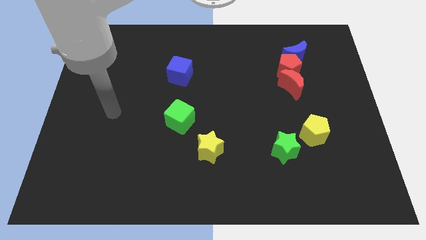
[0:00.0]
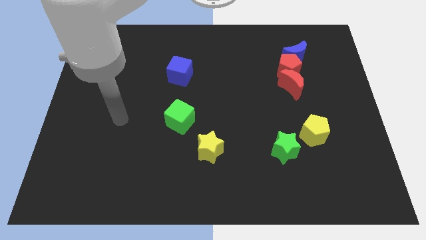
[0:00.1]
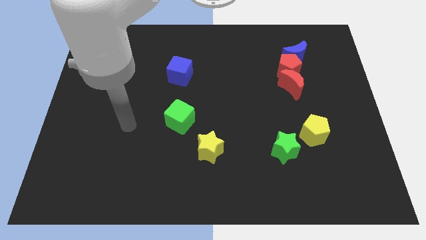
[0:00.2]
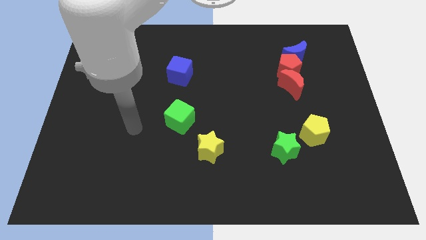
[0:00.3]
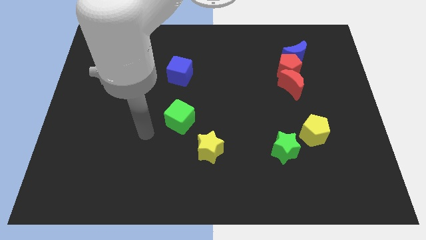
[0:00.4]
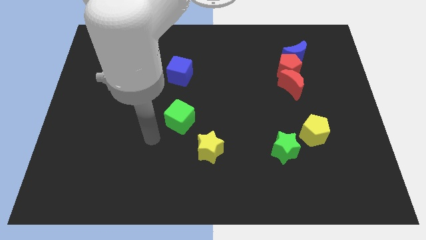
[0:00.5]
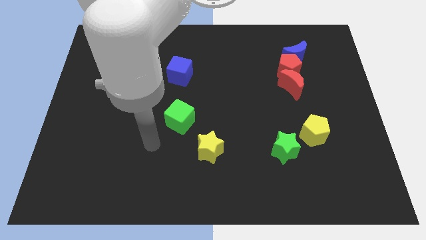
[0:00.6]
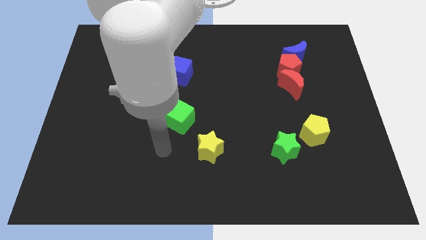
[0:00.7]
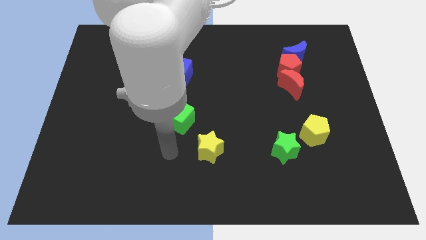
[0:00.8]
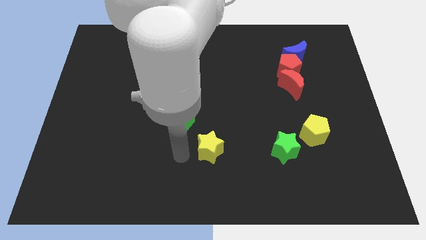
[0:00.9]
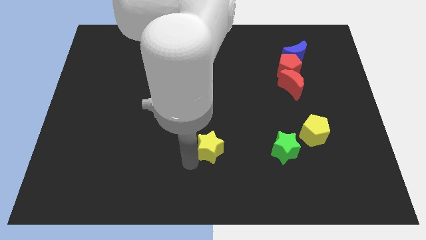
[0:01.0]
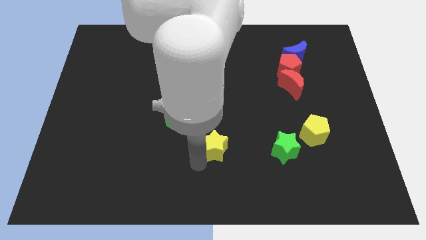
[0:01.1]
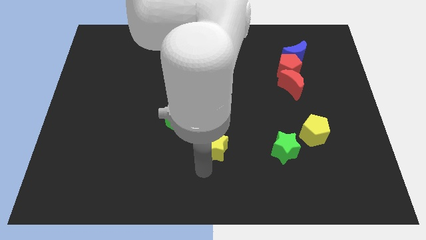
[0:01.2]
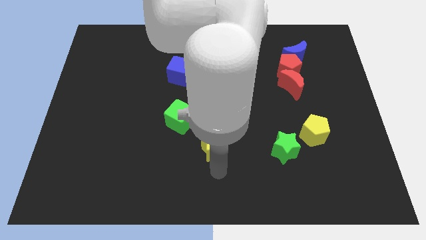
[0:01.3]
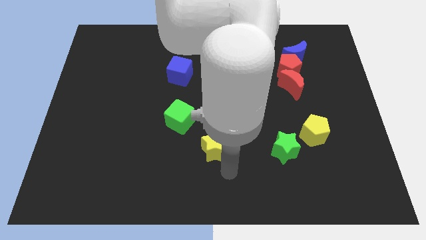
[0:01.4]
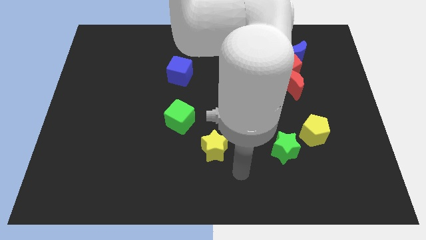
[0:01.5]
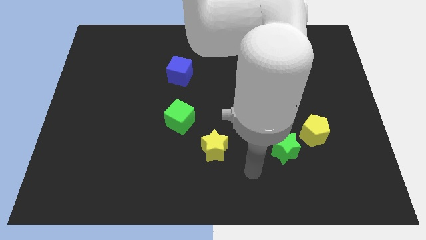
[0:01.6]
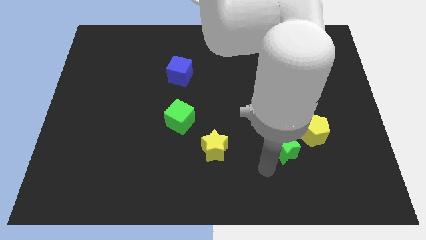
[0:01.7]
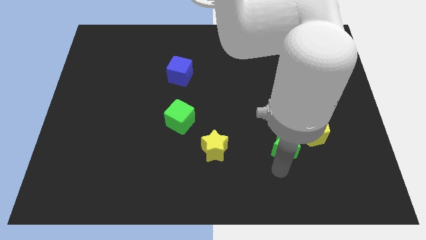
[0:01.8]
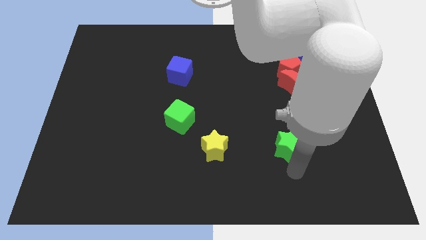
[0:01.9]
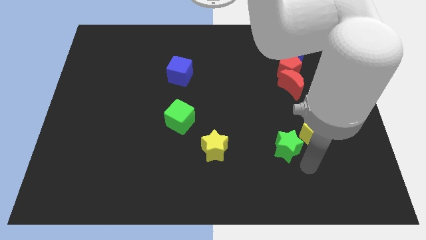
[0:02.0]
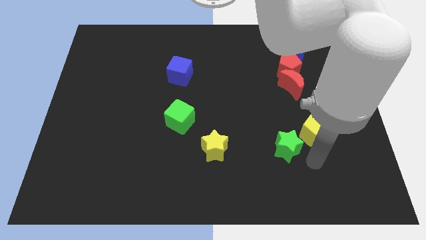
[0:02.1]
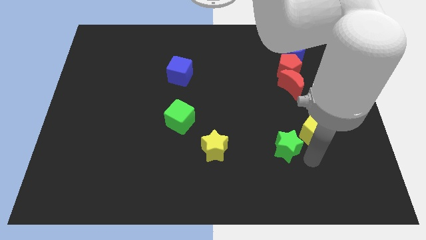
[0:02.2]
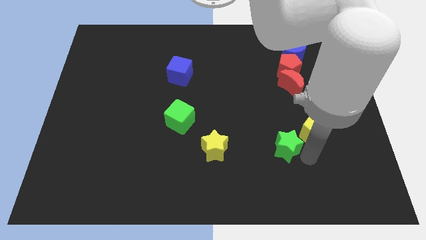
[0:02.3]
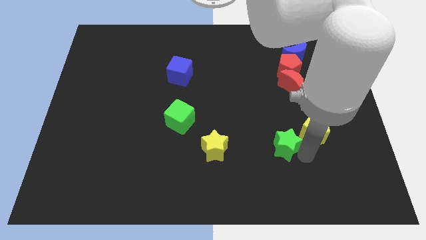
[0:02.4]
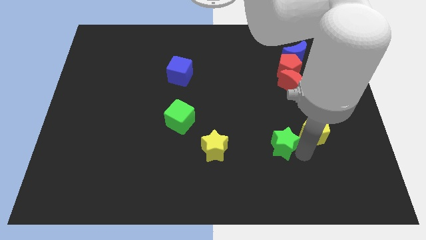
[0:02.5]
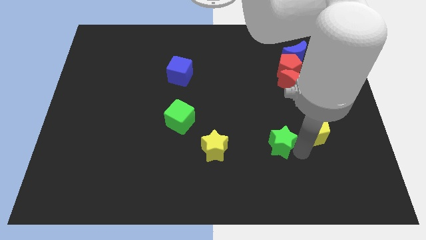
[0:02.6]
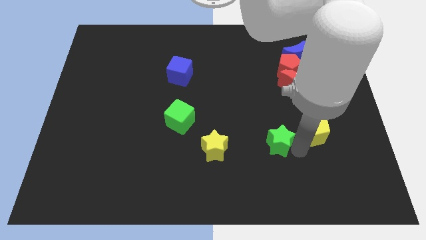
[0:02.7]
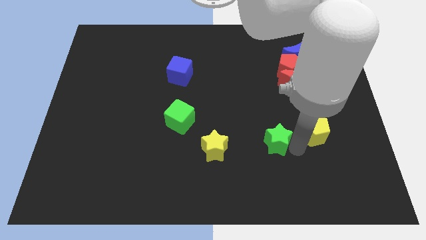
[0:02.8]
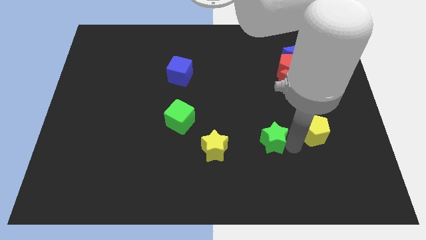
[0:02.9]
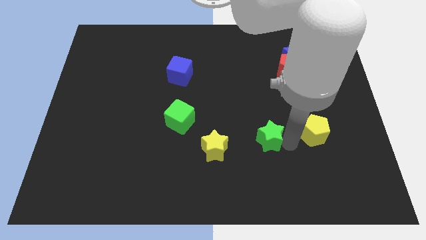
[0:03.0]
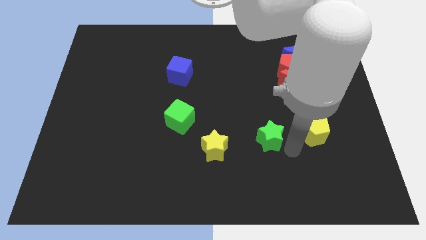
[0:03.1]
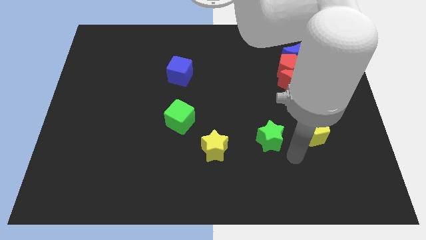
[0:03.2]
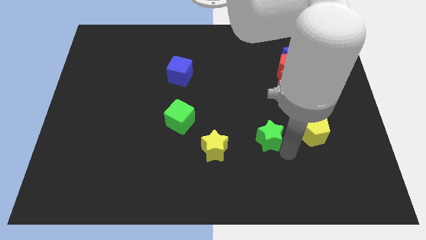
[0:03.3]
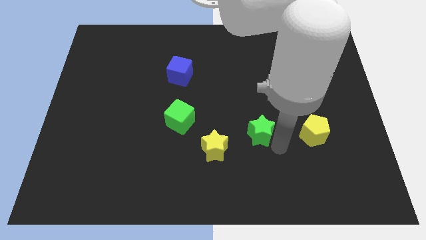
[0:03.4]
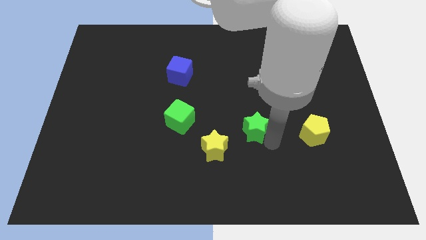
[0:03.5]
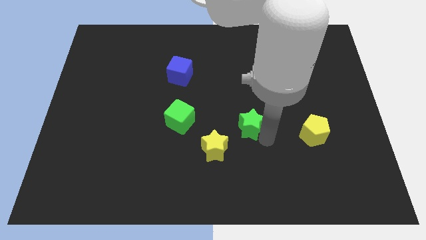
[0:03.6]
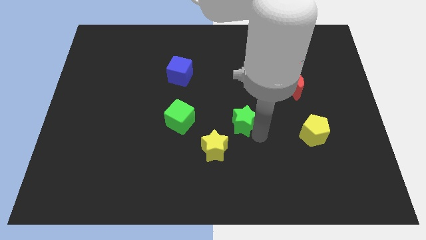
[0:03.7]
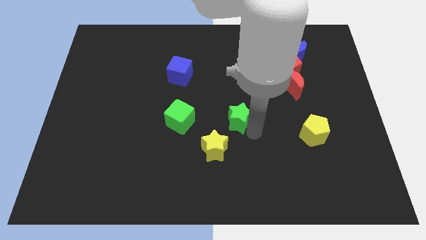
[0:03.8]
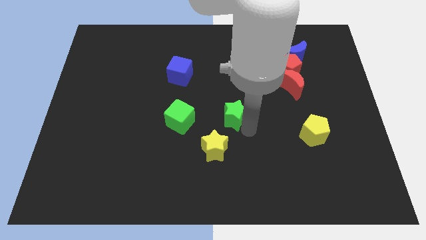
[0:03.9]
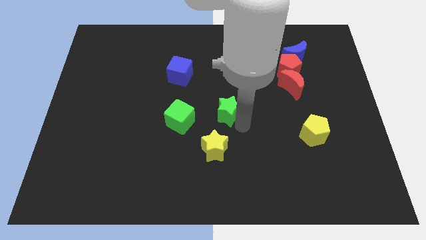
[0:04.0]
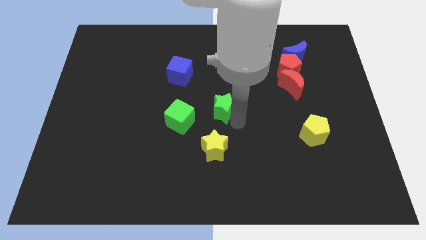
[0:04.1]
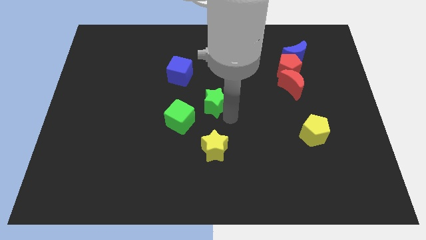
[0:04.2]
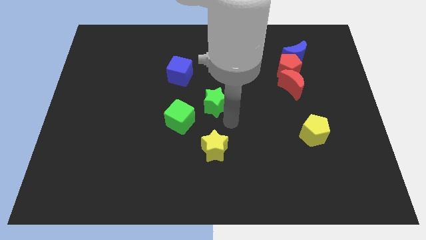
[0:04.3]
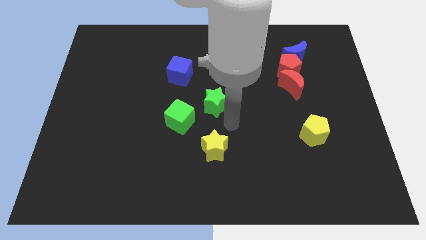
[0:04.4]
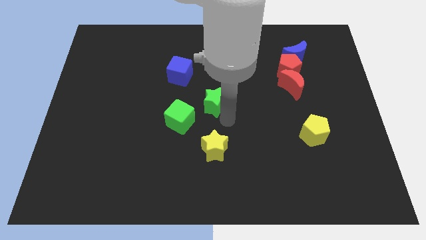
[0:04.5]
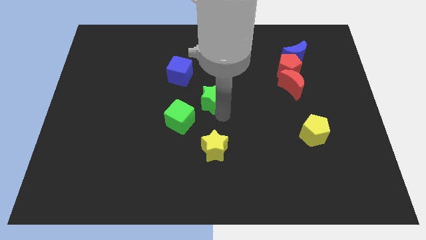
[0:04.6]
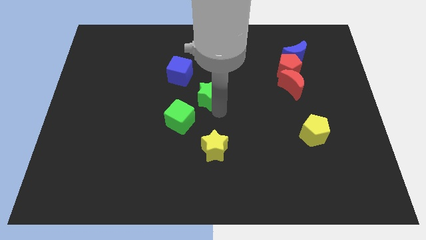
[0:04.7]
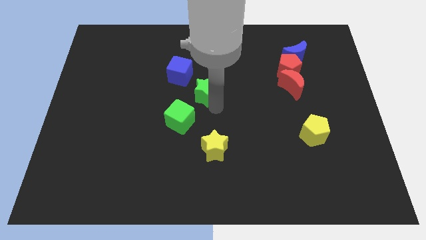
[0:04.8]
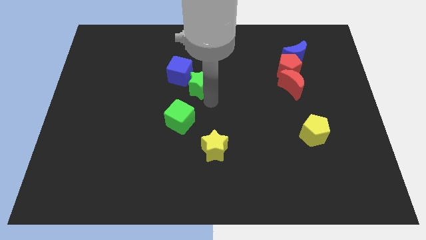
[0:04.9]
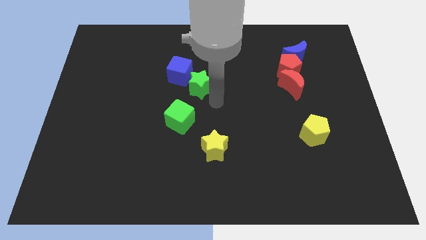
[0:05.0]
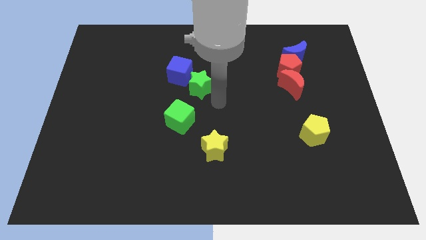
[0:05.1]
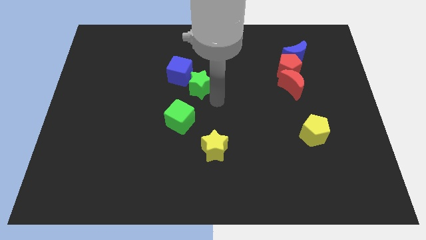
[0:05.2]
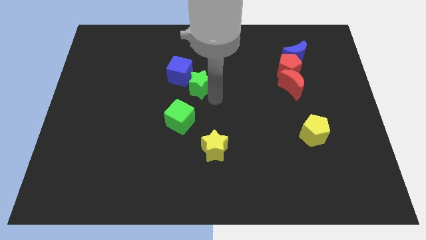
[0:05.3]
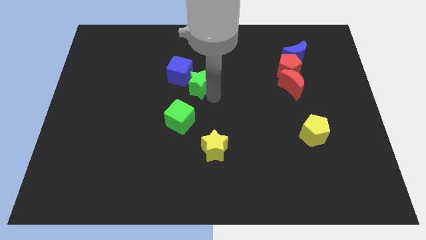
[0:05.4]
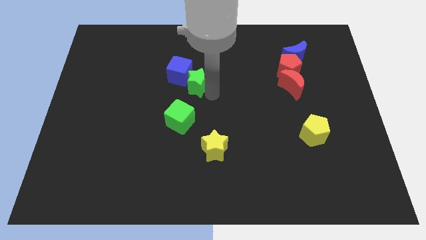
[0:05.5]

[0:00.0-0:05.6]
push the green star to the blue cube
